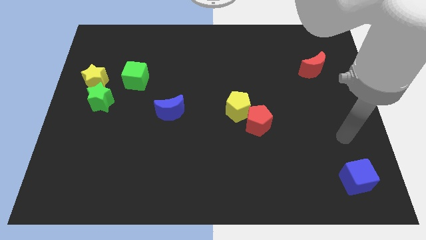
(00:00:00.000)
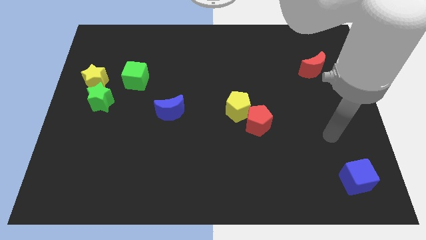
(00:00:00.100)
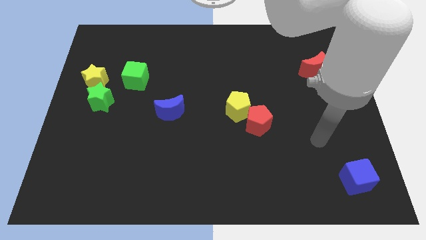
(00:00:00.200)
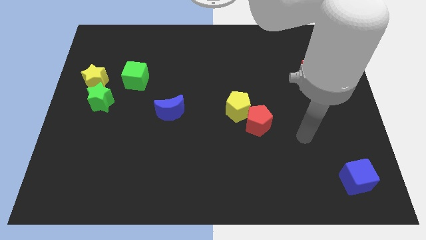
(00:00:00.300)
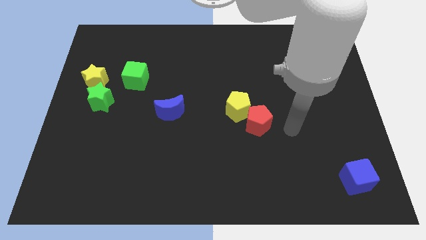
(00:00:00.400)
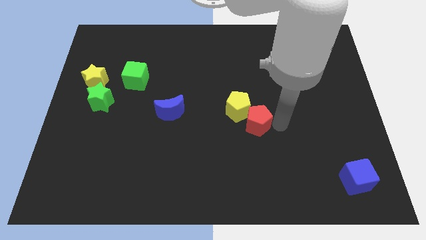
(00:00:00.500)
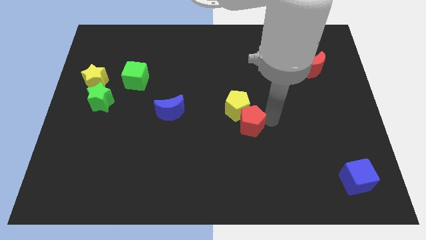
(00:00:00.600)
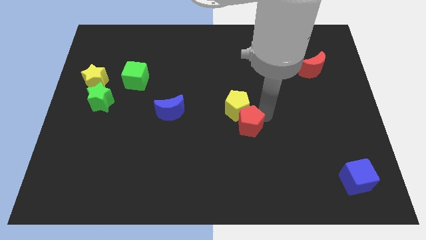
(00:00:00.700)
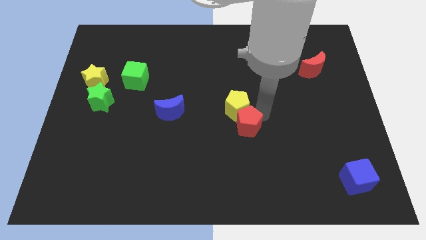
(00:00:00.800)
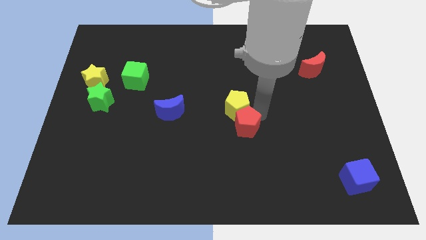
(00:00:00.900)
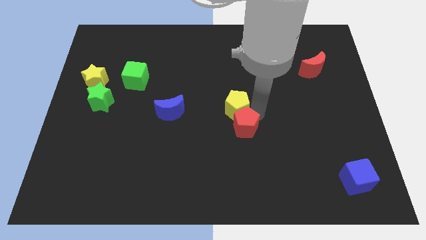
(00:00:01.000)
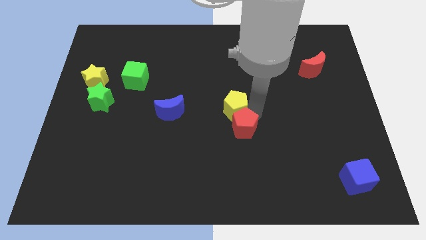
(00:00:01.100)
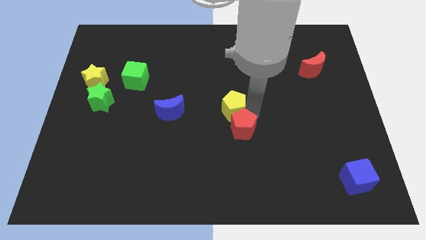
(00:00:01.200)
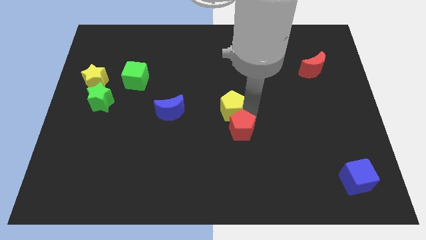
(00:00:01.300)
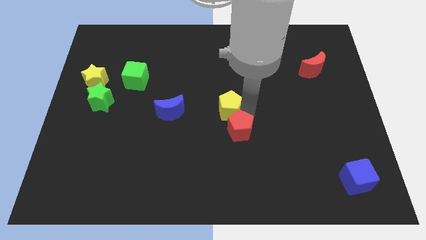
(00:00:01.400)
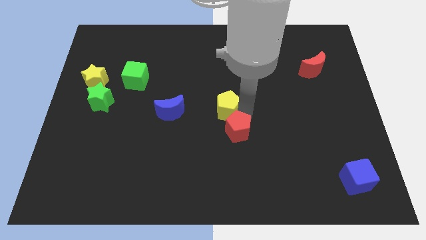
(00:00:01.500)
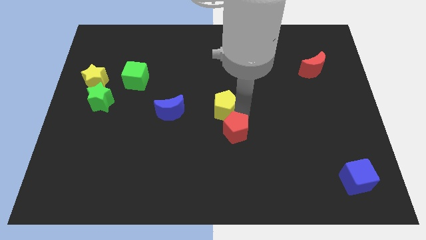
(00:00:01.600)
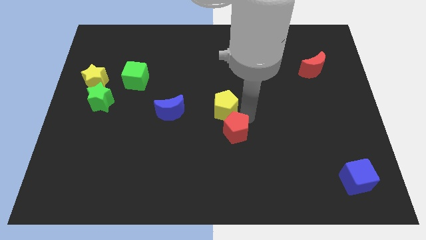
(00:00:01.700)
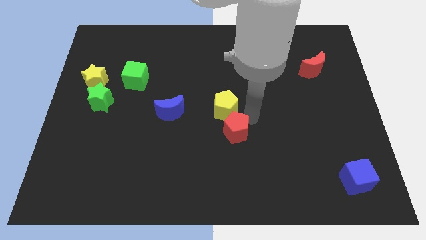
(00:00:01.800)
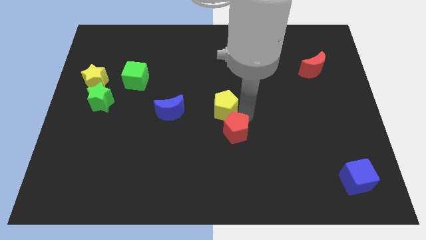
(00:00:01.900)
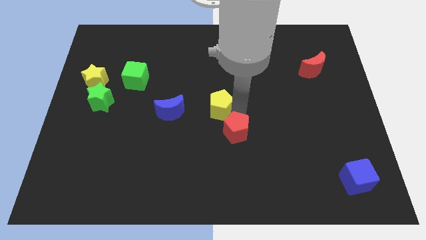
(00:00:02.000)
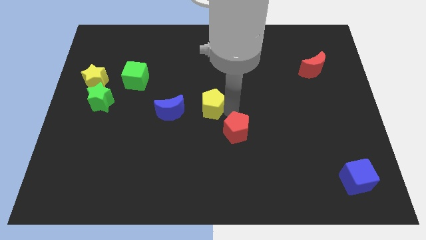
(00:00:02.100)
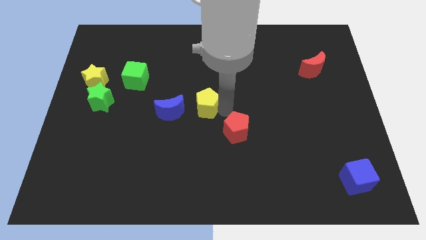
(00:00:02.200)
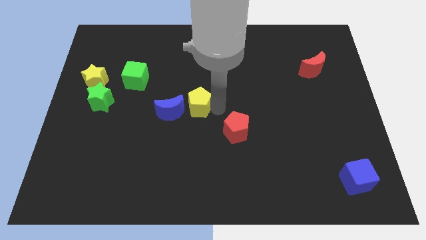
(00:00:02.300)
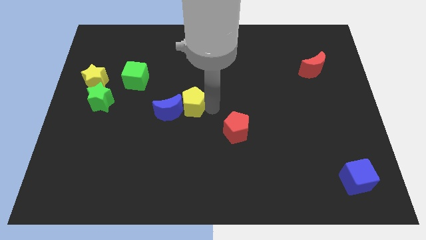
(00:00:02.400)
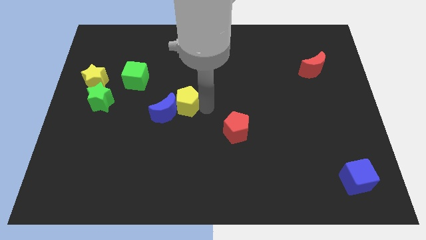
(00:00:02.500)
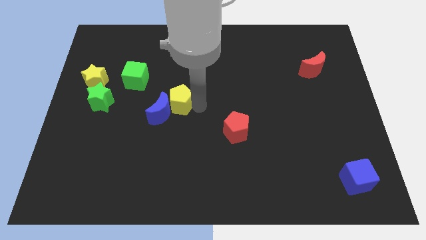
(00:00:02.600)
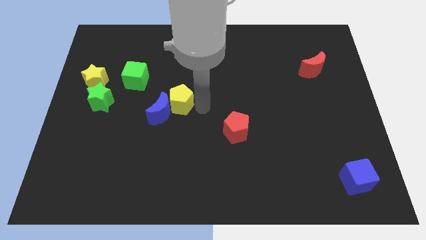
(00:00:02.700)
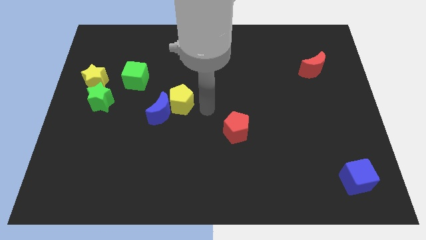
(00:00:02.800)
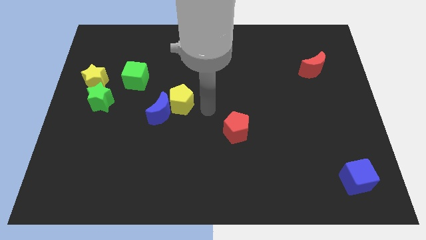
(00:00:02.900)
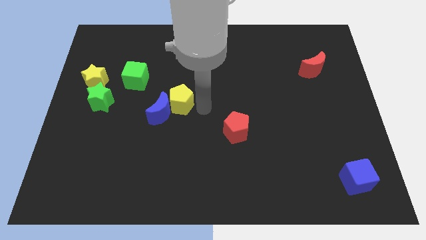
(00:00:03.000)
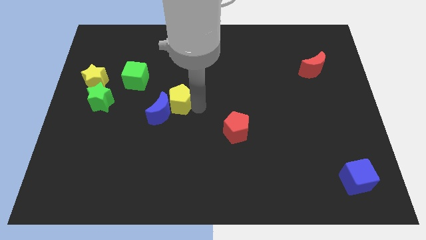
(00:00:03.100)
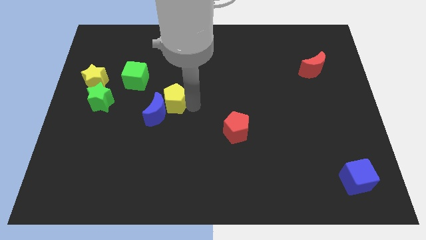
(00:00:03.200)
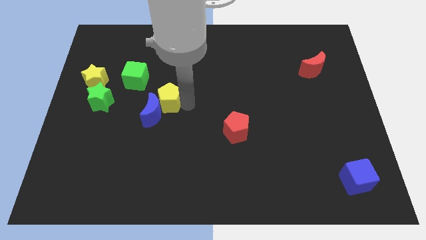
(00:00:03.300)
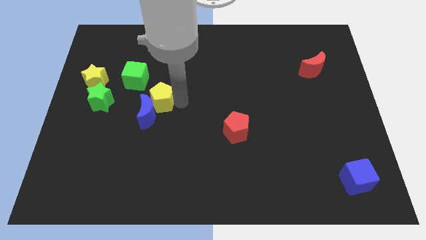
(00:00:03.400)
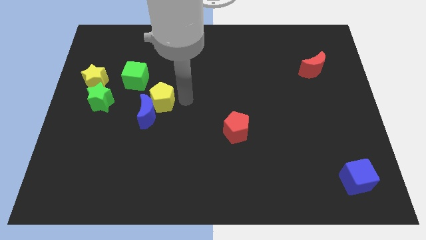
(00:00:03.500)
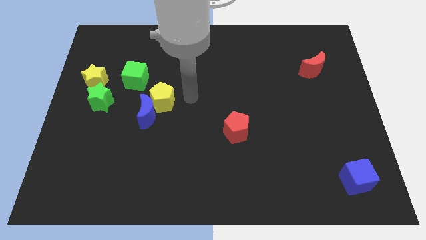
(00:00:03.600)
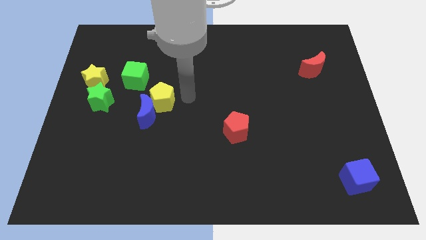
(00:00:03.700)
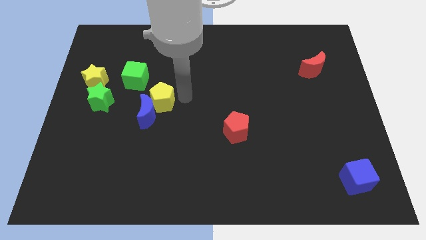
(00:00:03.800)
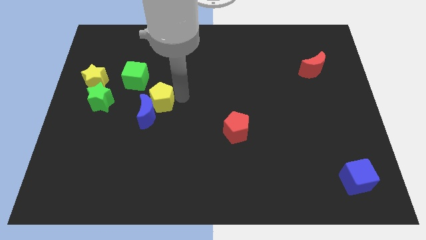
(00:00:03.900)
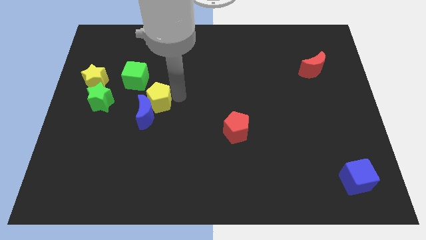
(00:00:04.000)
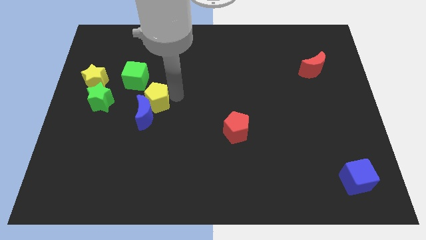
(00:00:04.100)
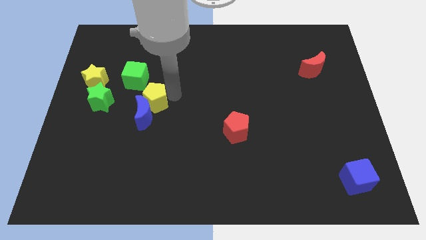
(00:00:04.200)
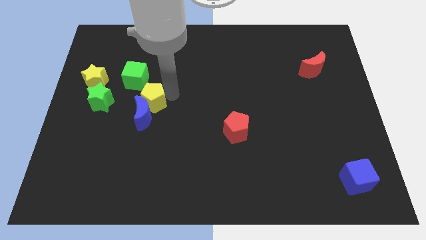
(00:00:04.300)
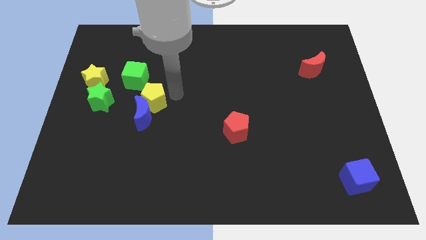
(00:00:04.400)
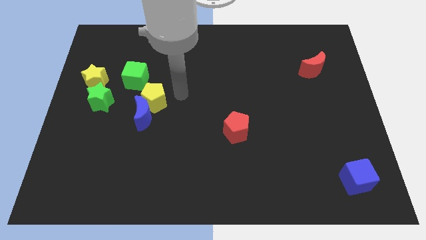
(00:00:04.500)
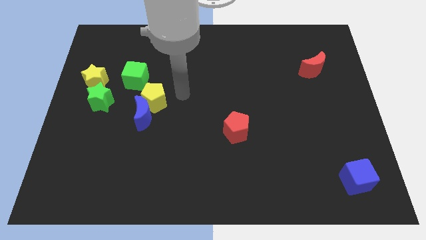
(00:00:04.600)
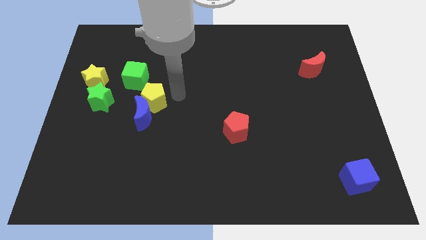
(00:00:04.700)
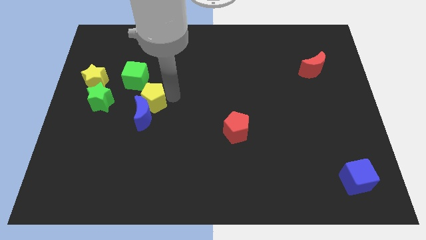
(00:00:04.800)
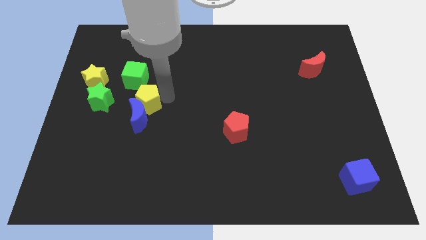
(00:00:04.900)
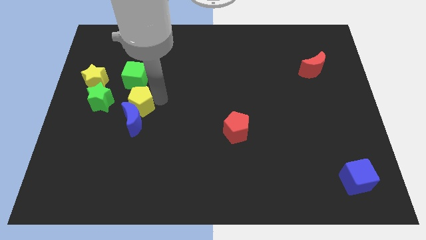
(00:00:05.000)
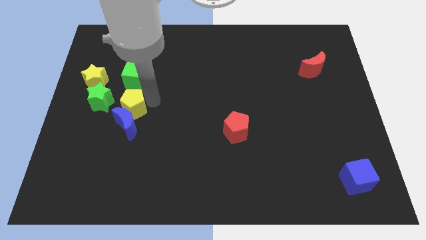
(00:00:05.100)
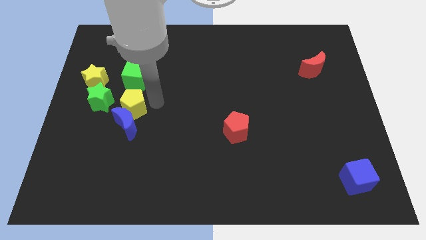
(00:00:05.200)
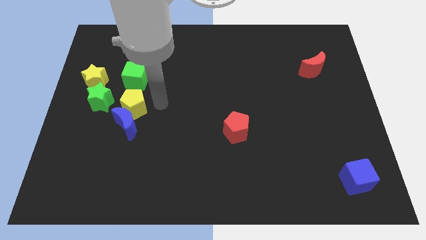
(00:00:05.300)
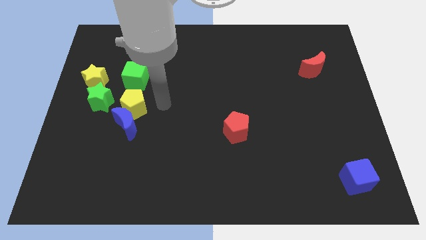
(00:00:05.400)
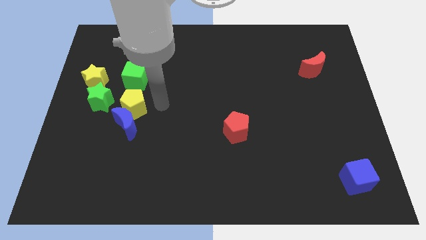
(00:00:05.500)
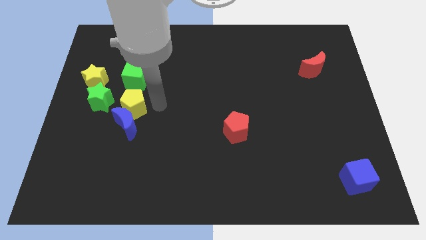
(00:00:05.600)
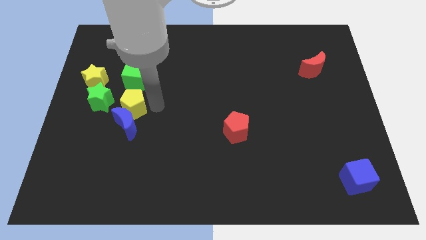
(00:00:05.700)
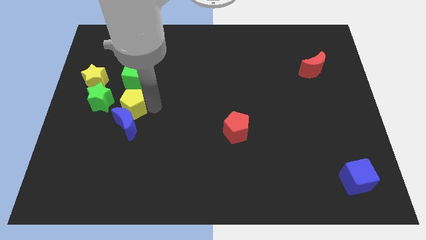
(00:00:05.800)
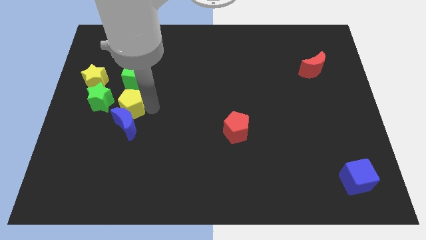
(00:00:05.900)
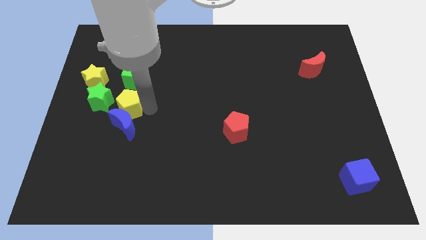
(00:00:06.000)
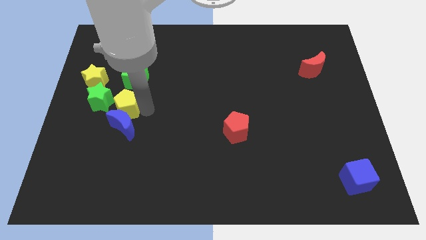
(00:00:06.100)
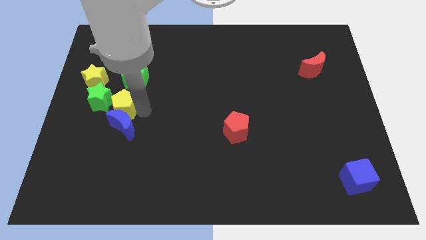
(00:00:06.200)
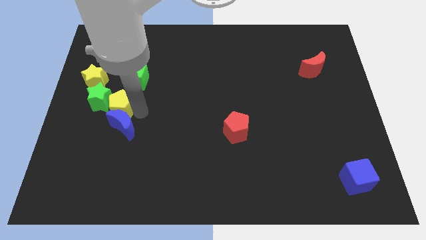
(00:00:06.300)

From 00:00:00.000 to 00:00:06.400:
push the yellow pentagon next to the green star
